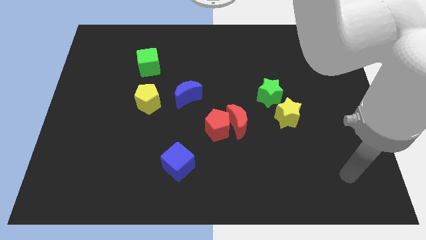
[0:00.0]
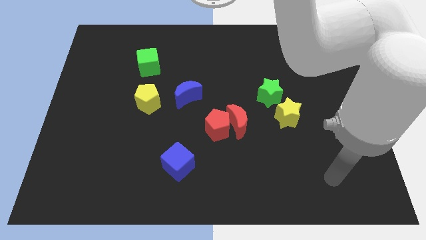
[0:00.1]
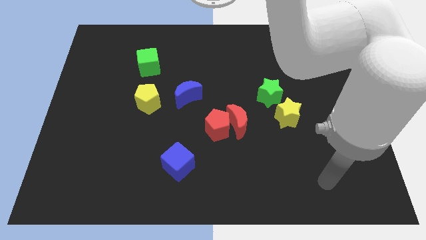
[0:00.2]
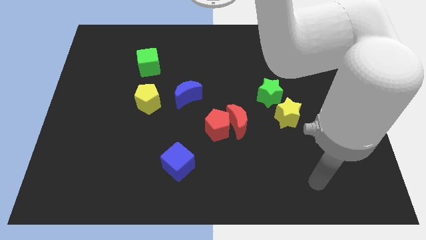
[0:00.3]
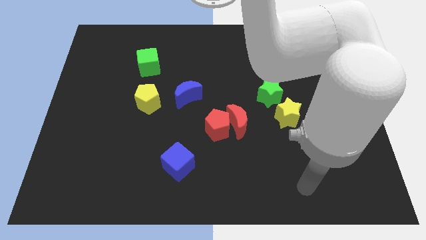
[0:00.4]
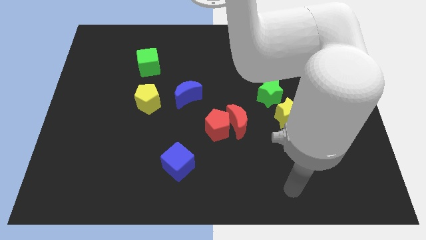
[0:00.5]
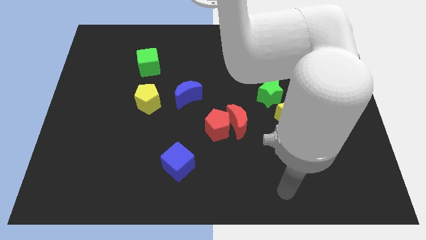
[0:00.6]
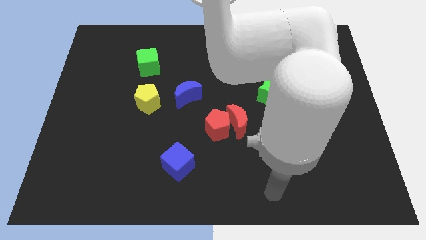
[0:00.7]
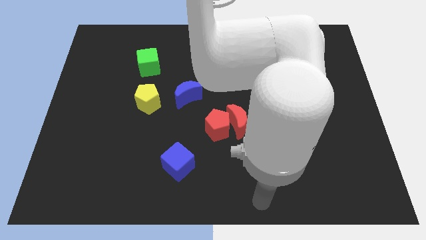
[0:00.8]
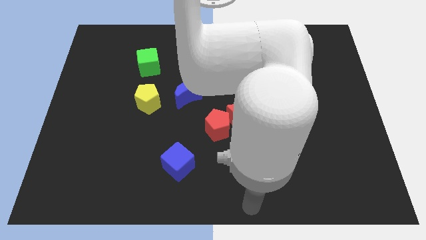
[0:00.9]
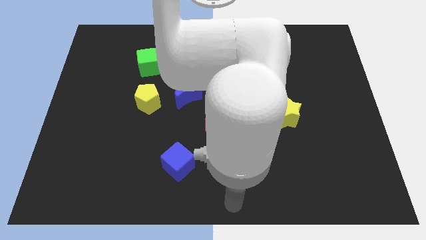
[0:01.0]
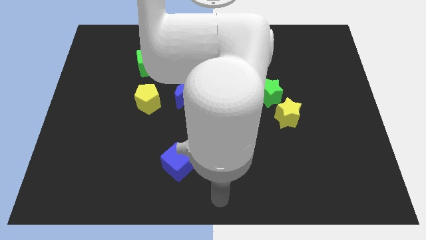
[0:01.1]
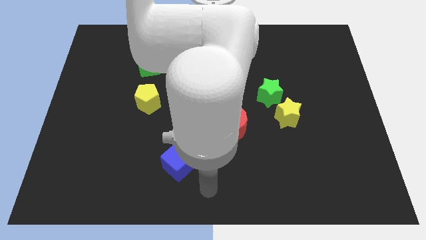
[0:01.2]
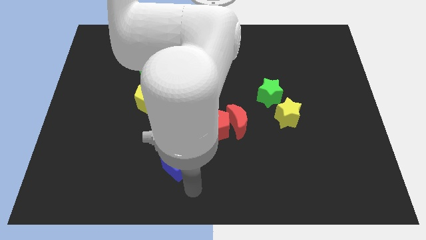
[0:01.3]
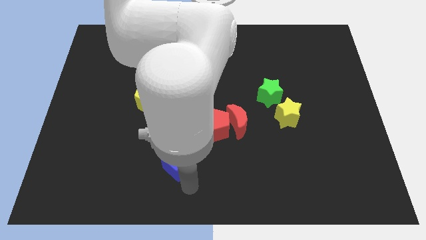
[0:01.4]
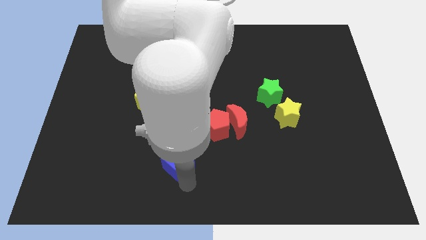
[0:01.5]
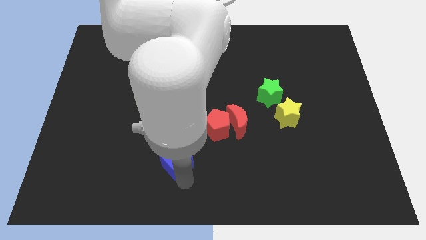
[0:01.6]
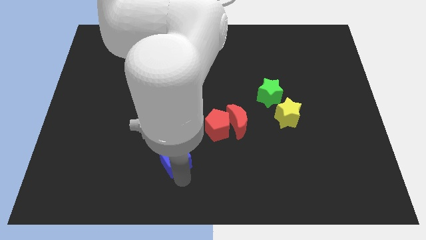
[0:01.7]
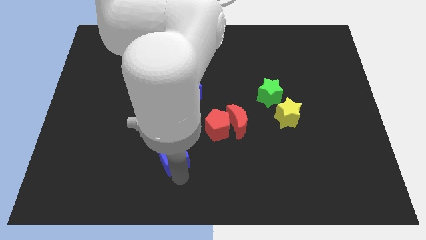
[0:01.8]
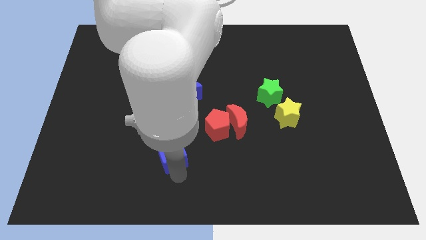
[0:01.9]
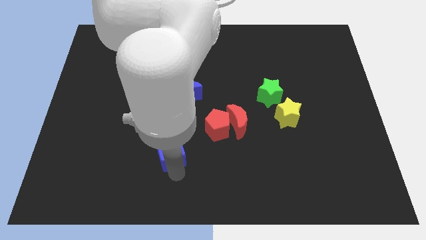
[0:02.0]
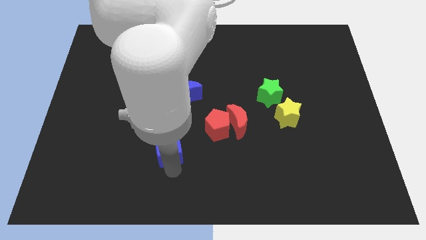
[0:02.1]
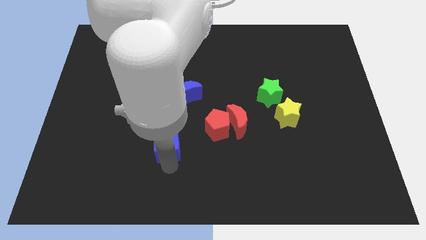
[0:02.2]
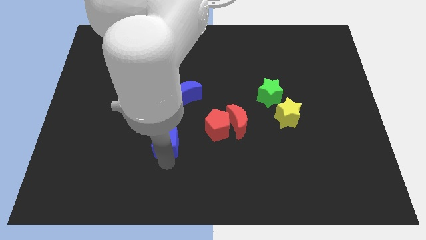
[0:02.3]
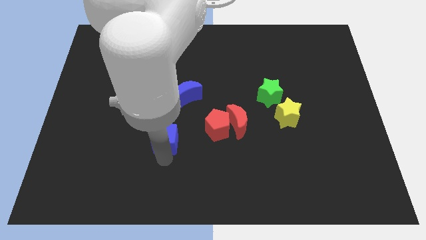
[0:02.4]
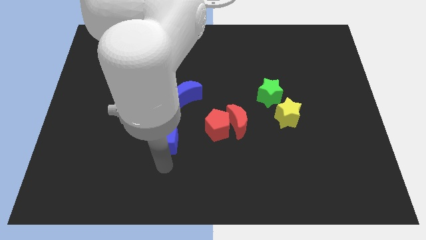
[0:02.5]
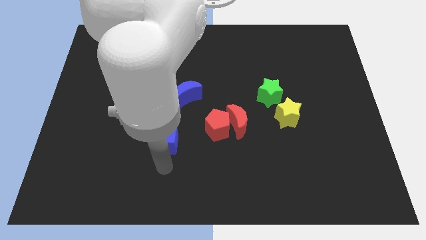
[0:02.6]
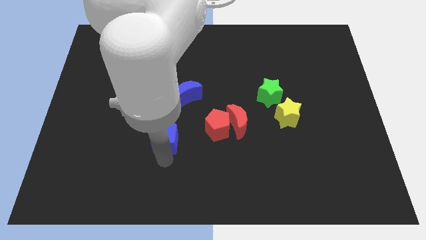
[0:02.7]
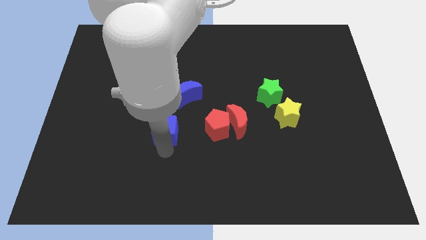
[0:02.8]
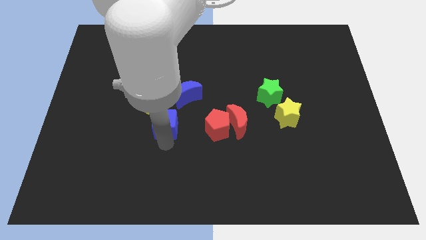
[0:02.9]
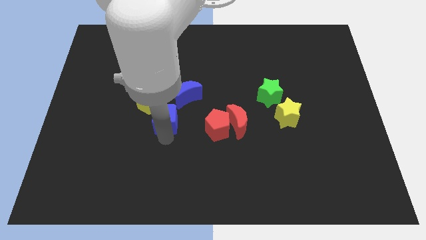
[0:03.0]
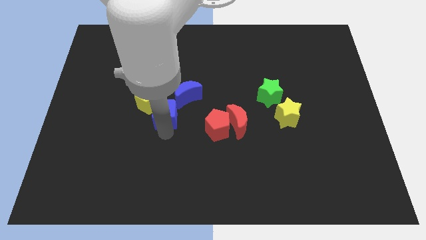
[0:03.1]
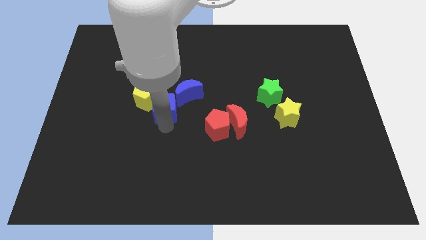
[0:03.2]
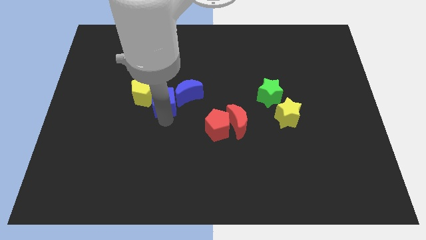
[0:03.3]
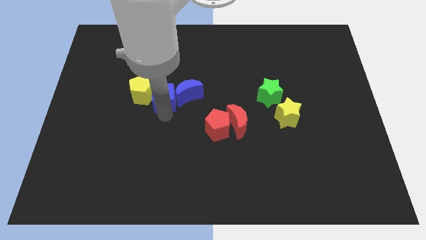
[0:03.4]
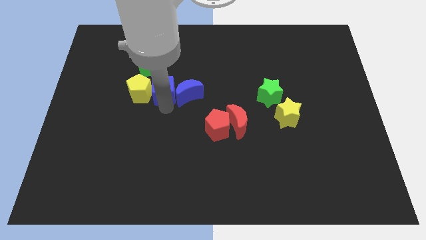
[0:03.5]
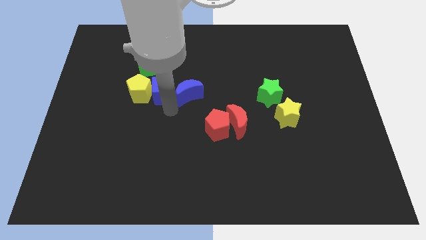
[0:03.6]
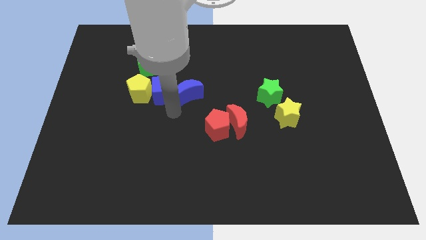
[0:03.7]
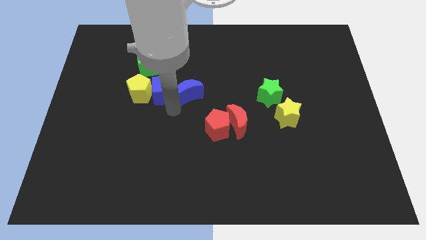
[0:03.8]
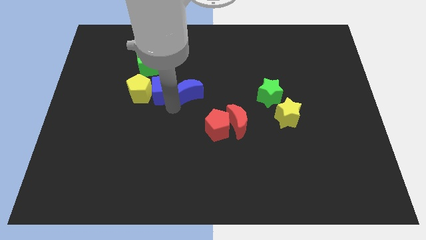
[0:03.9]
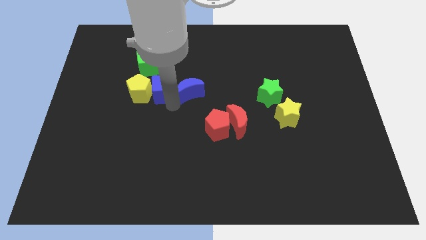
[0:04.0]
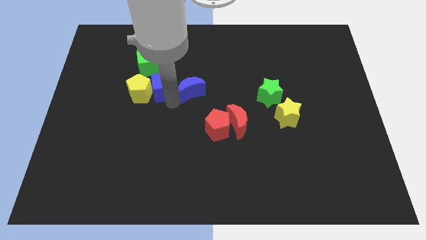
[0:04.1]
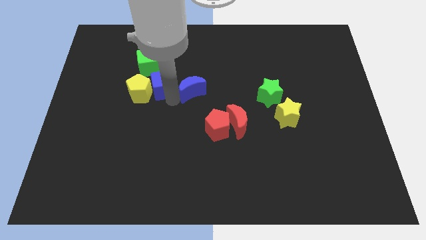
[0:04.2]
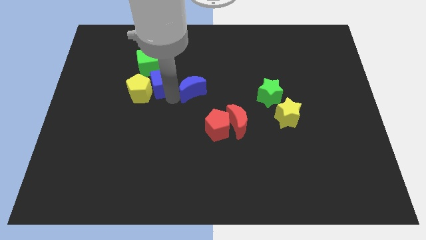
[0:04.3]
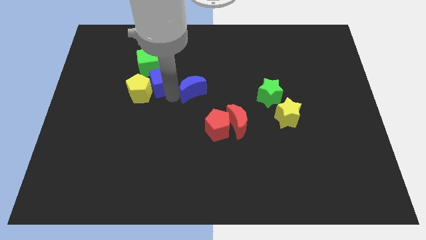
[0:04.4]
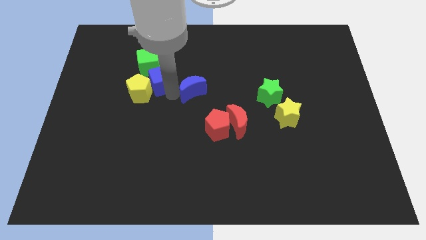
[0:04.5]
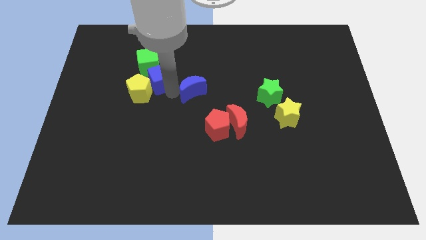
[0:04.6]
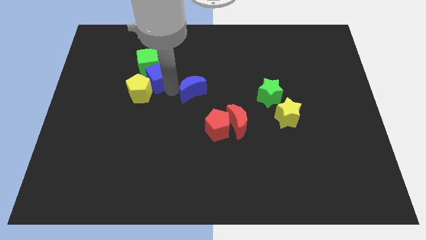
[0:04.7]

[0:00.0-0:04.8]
push the blue cube next to the green cube

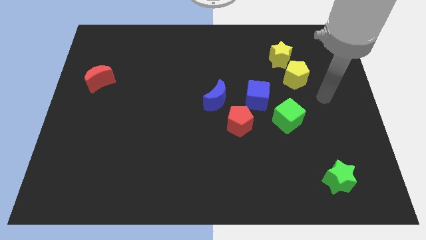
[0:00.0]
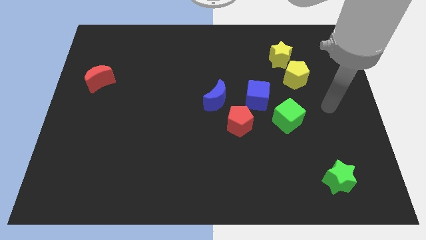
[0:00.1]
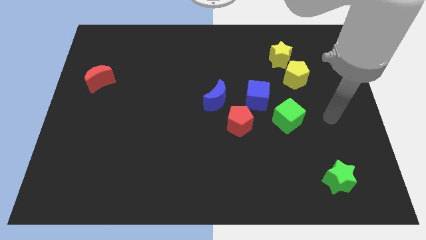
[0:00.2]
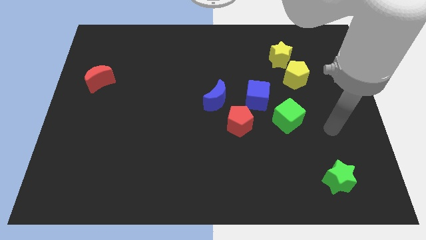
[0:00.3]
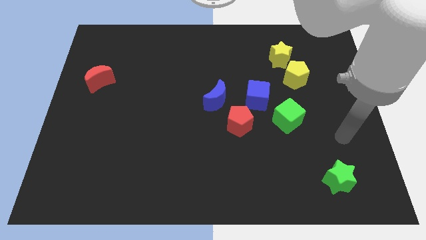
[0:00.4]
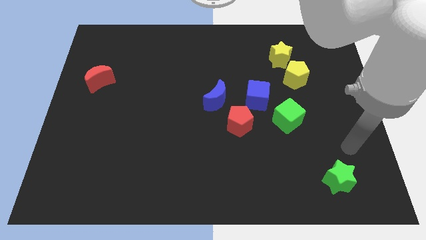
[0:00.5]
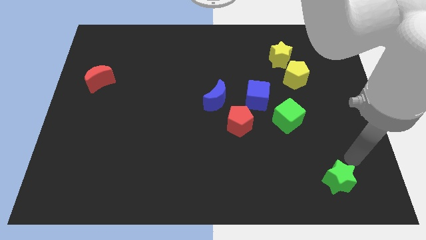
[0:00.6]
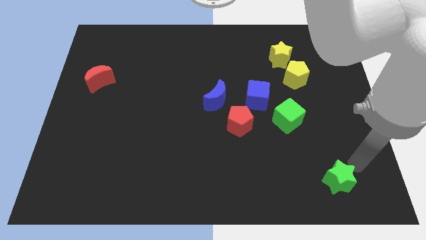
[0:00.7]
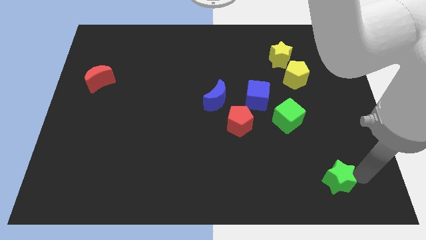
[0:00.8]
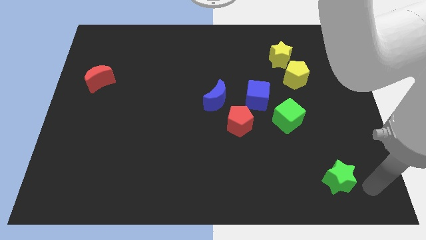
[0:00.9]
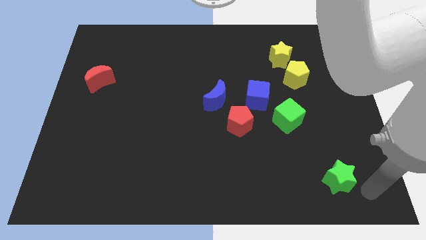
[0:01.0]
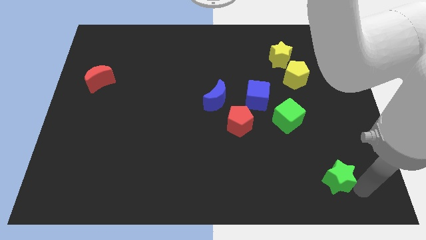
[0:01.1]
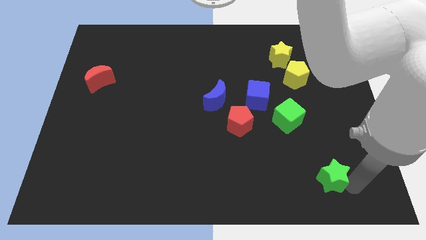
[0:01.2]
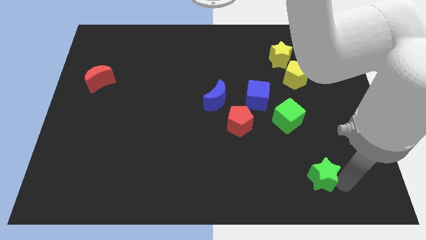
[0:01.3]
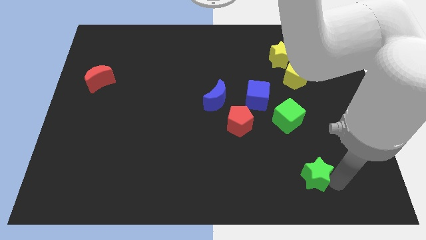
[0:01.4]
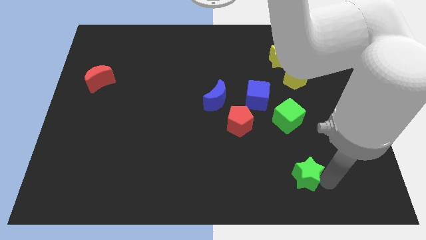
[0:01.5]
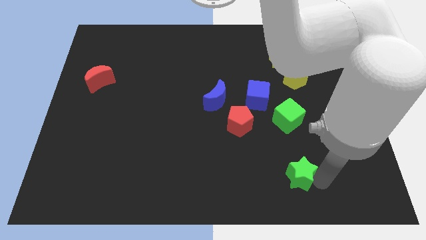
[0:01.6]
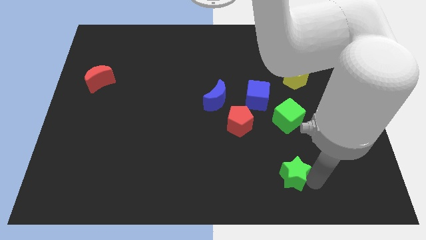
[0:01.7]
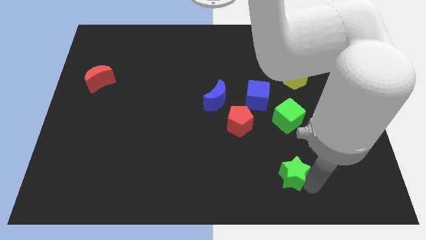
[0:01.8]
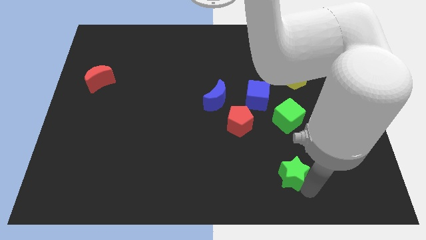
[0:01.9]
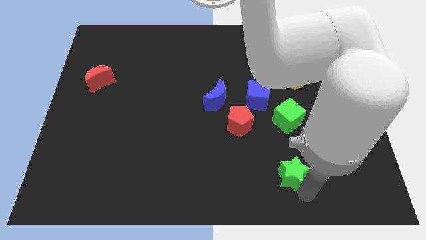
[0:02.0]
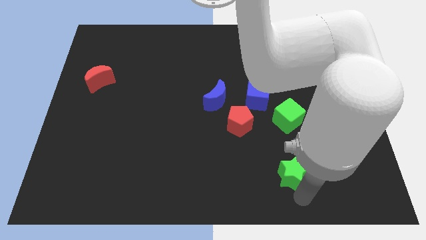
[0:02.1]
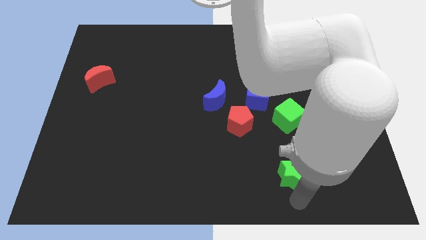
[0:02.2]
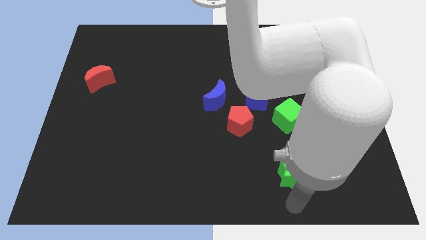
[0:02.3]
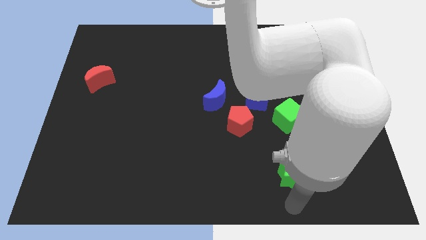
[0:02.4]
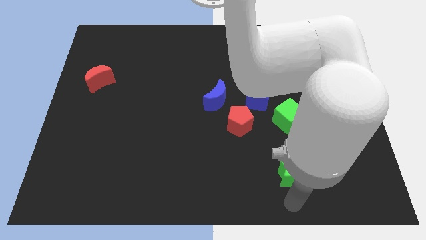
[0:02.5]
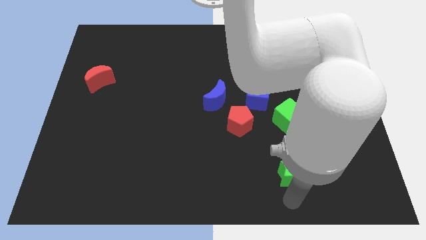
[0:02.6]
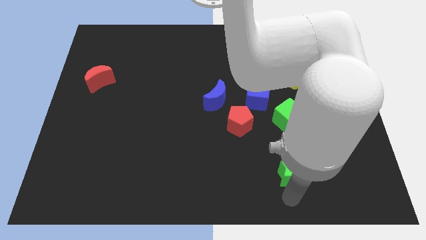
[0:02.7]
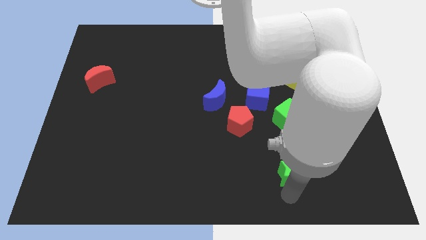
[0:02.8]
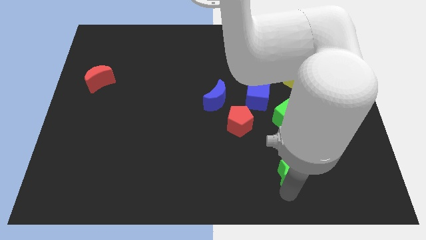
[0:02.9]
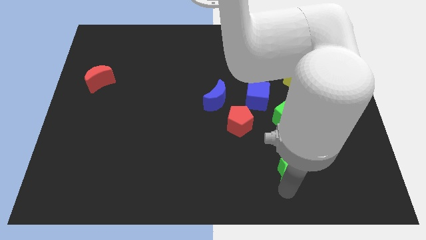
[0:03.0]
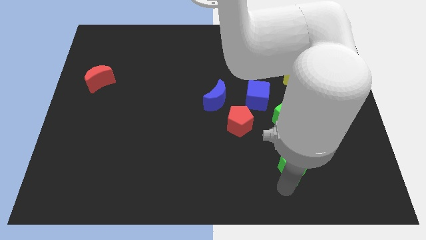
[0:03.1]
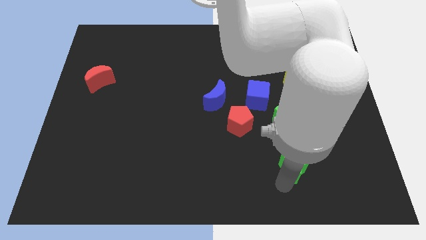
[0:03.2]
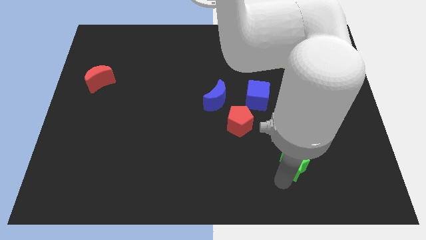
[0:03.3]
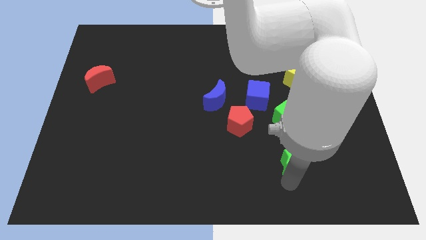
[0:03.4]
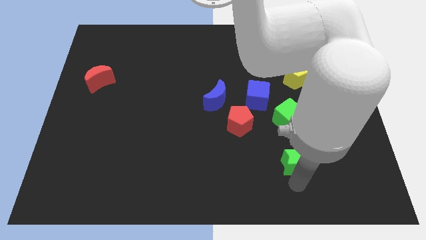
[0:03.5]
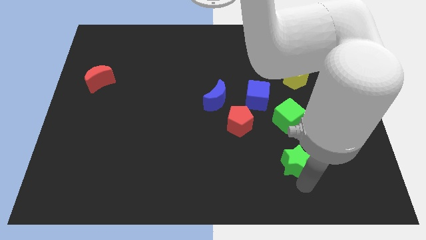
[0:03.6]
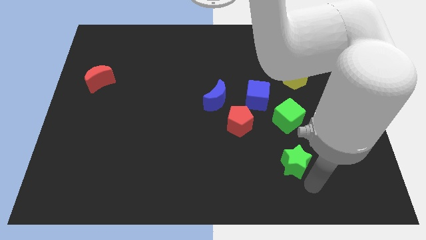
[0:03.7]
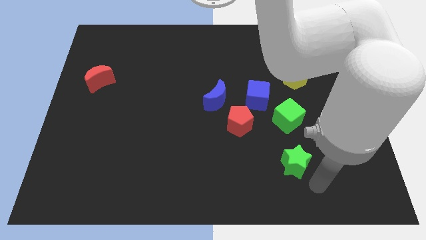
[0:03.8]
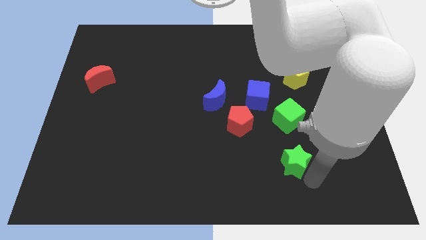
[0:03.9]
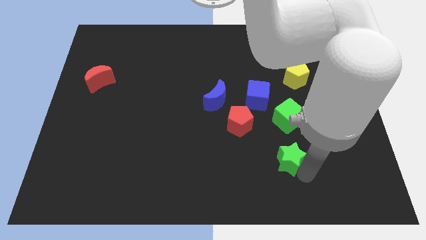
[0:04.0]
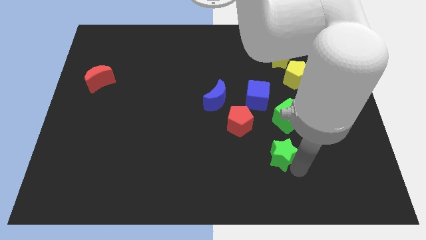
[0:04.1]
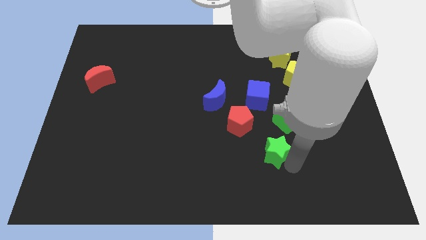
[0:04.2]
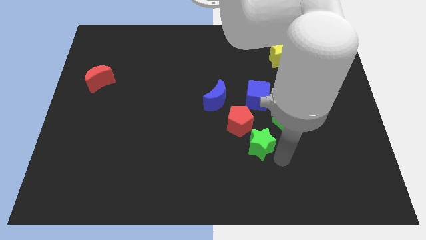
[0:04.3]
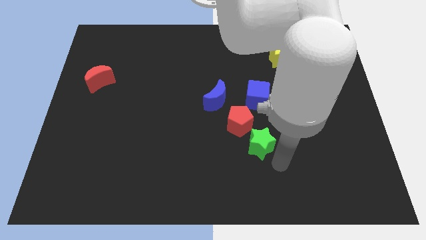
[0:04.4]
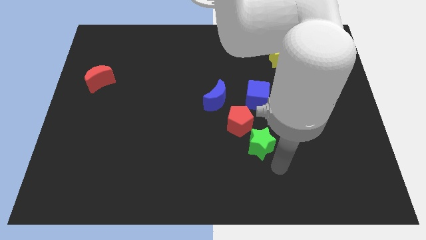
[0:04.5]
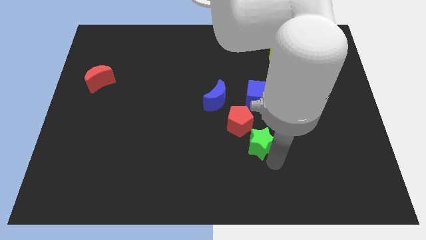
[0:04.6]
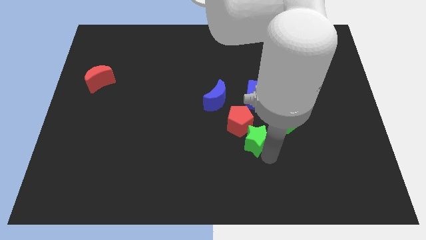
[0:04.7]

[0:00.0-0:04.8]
slide the green star close to the red pentagon
